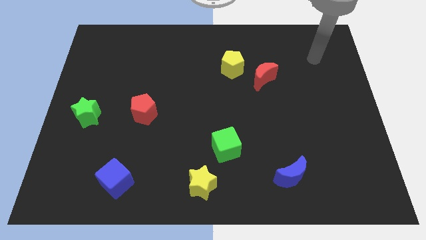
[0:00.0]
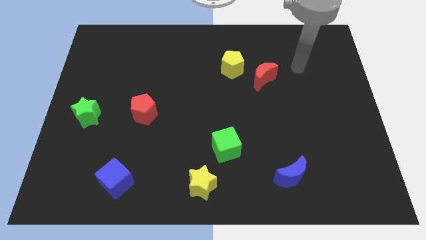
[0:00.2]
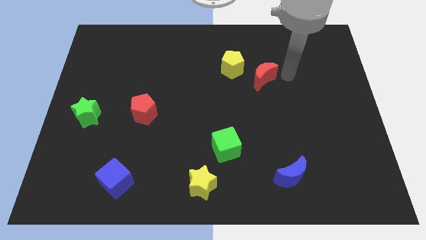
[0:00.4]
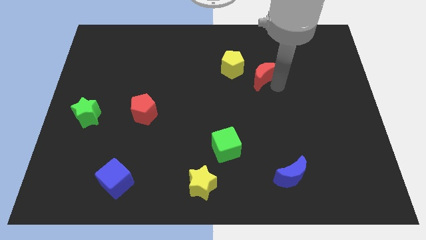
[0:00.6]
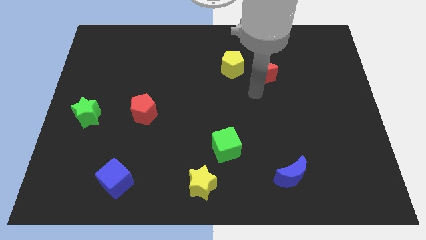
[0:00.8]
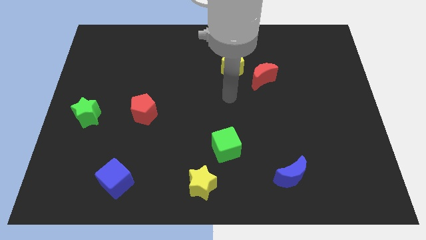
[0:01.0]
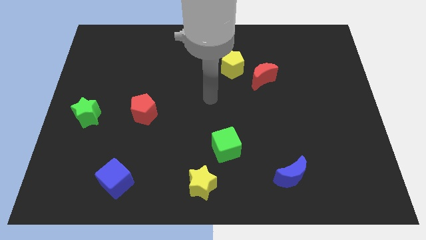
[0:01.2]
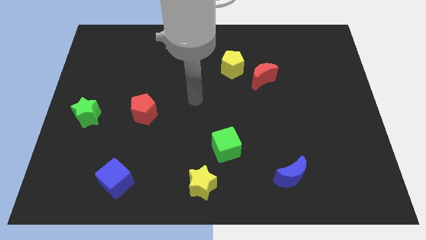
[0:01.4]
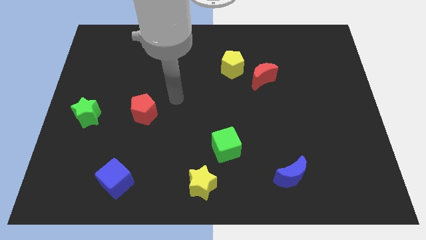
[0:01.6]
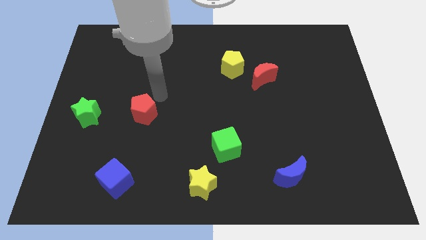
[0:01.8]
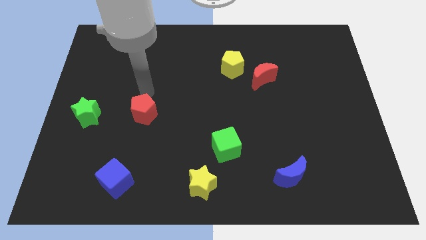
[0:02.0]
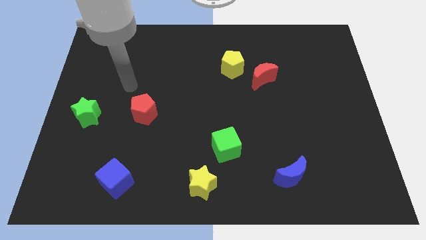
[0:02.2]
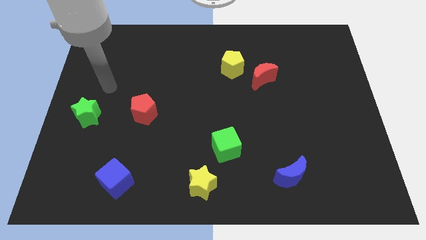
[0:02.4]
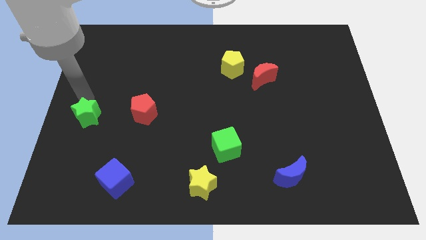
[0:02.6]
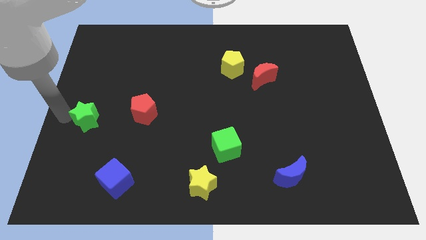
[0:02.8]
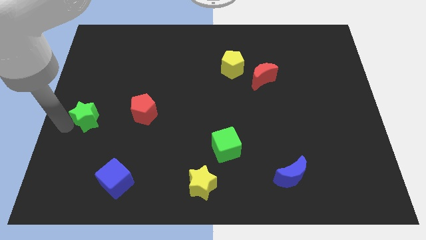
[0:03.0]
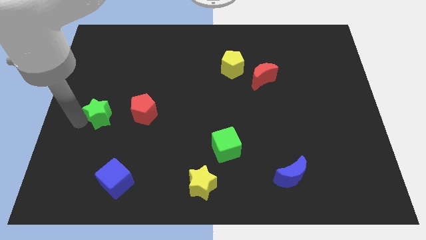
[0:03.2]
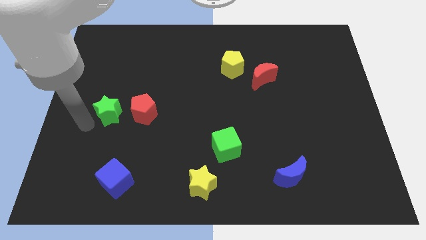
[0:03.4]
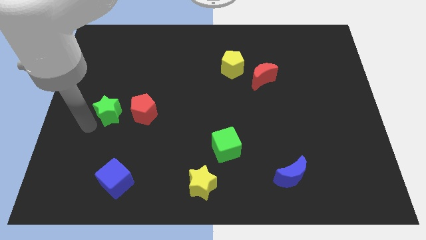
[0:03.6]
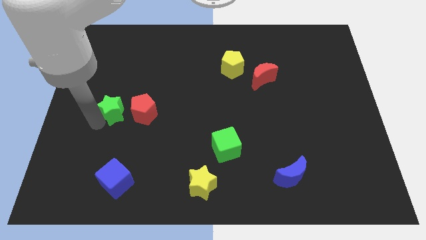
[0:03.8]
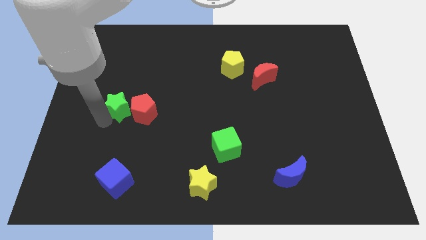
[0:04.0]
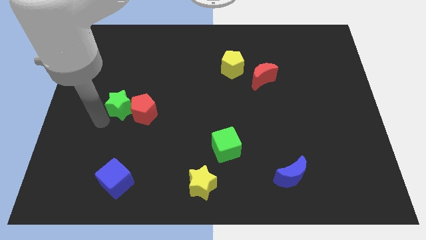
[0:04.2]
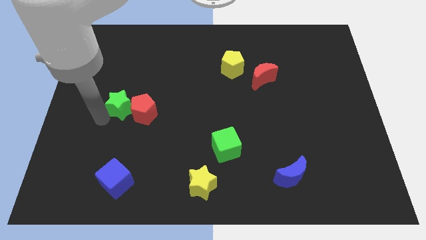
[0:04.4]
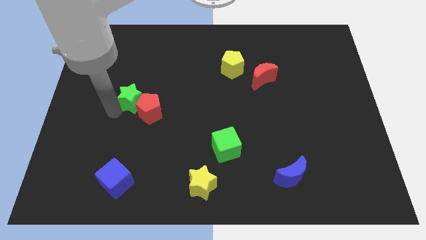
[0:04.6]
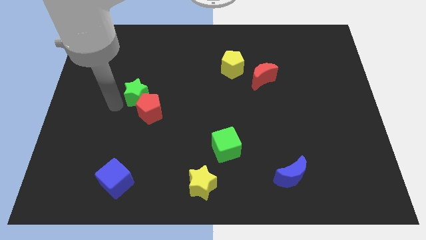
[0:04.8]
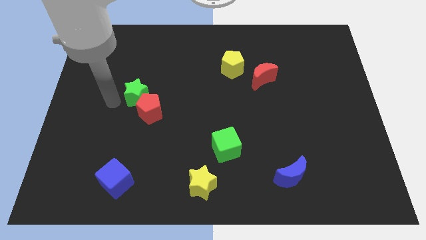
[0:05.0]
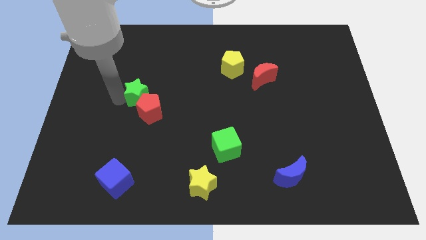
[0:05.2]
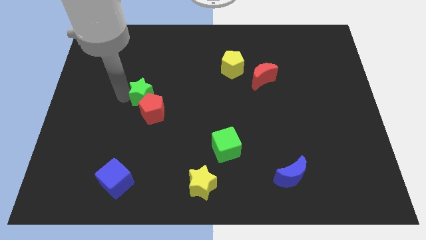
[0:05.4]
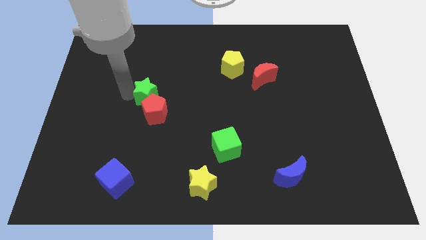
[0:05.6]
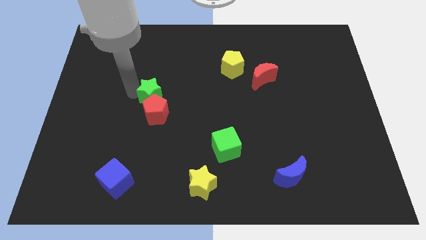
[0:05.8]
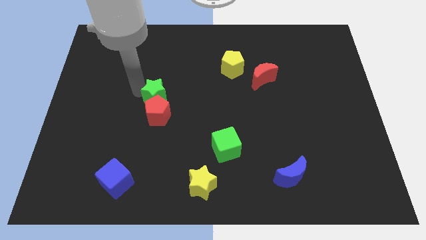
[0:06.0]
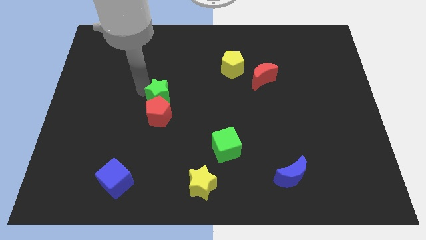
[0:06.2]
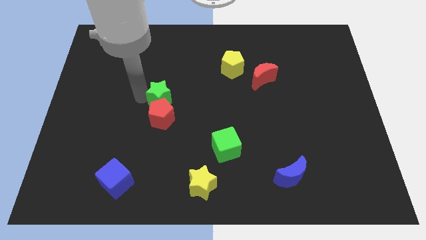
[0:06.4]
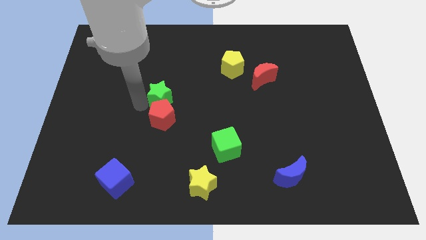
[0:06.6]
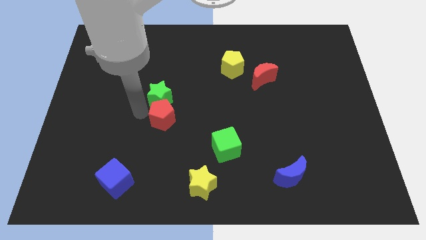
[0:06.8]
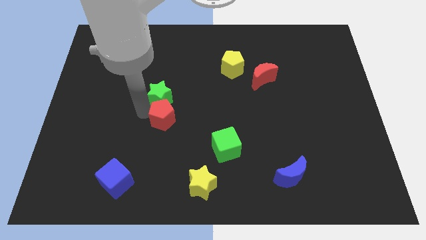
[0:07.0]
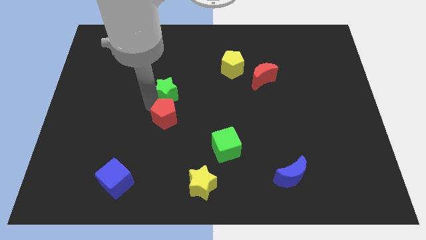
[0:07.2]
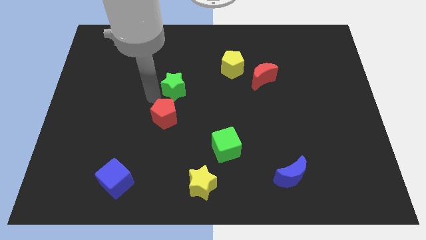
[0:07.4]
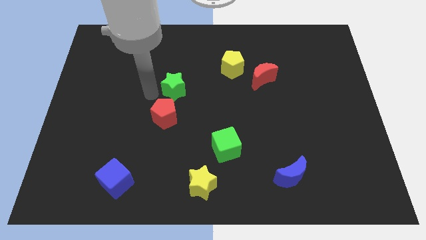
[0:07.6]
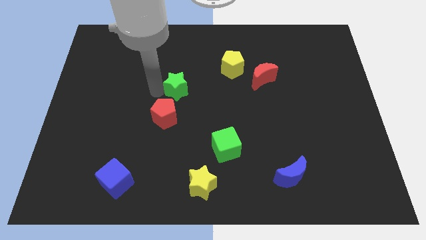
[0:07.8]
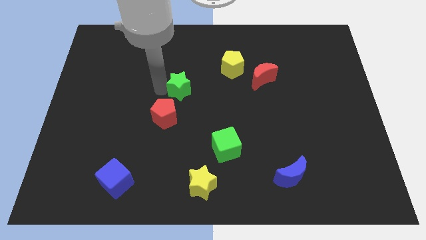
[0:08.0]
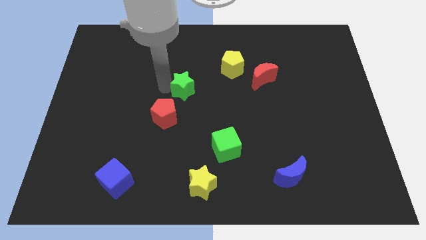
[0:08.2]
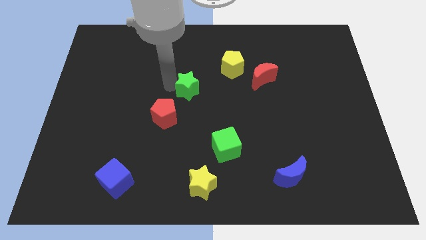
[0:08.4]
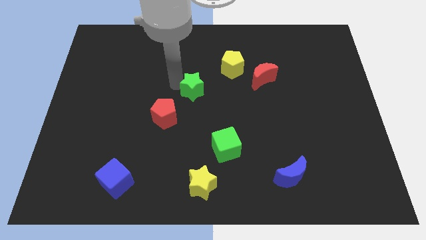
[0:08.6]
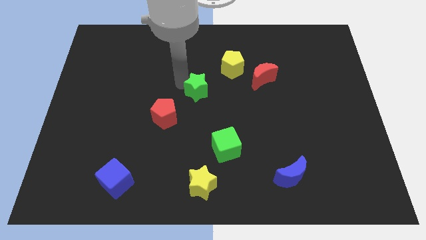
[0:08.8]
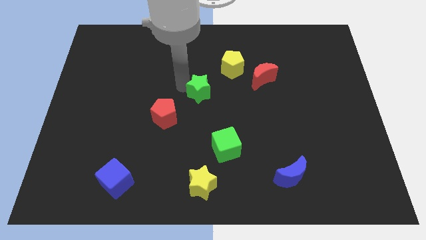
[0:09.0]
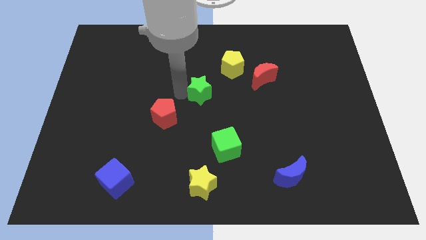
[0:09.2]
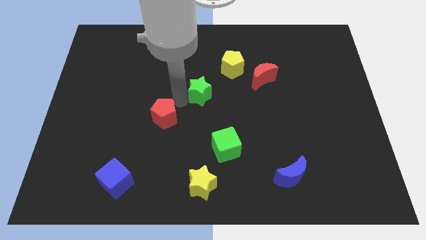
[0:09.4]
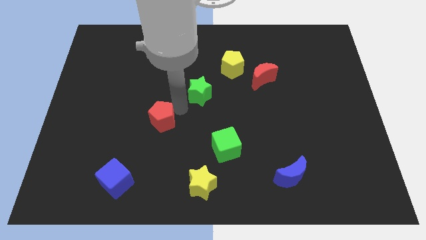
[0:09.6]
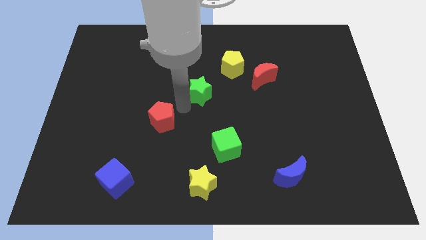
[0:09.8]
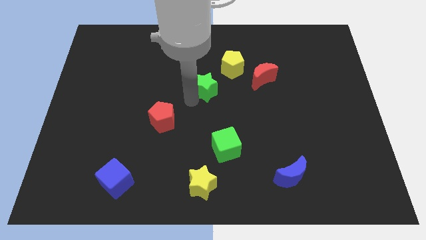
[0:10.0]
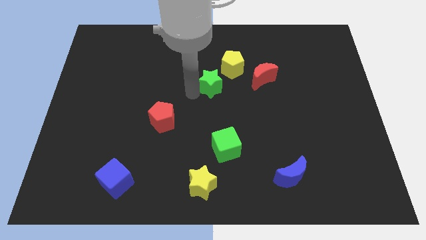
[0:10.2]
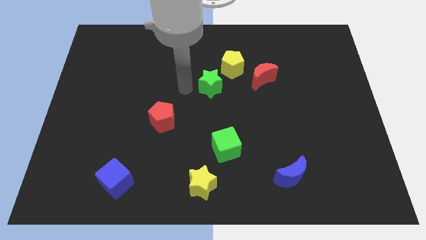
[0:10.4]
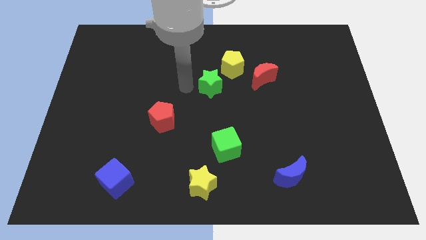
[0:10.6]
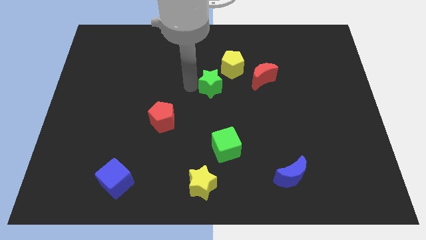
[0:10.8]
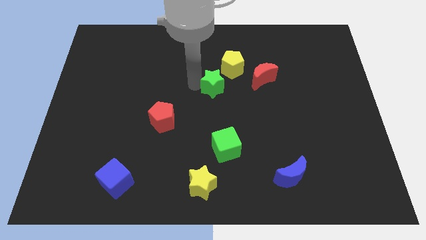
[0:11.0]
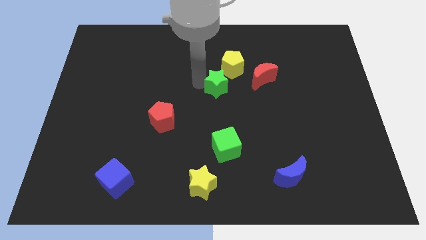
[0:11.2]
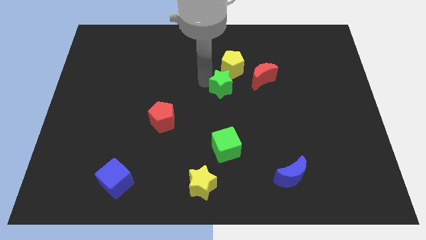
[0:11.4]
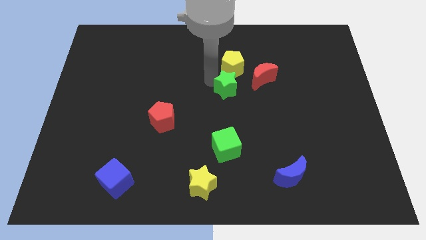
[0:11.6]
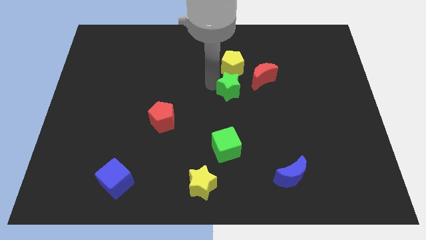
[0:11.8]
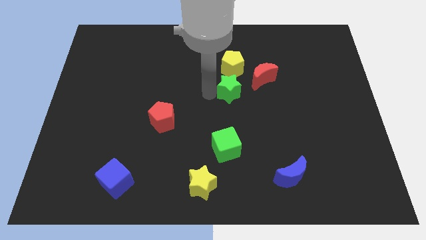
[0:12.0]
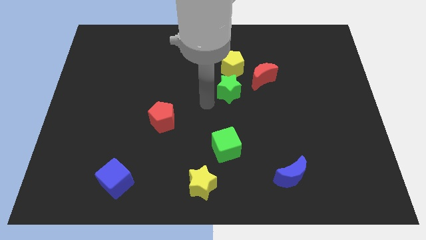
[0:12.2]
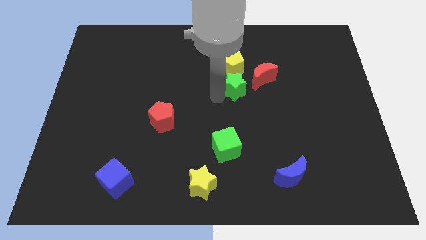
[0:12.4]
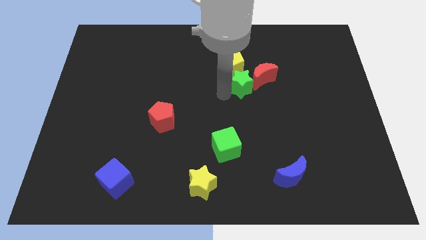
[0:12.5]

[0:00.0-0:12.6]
move the green star to the red moon

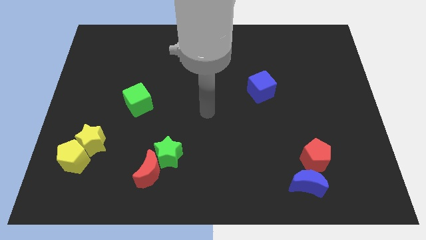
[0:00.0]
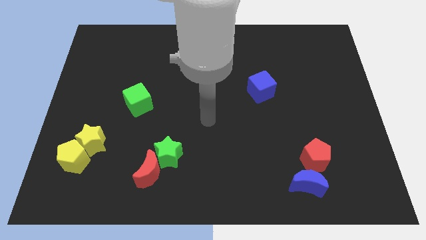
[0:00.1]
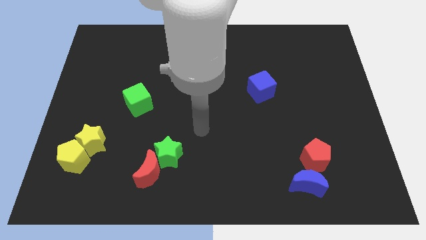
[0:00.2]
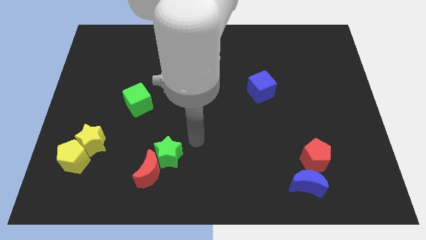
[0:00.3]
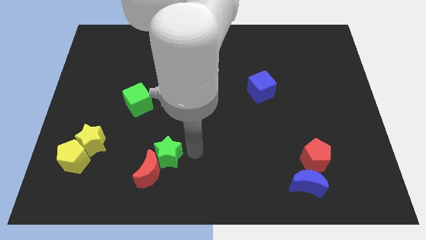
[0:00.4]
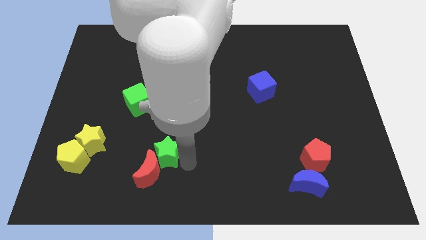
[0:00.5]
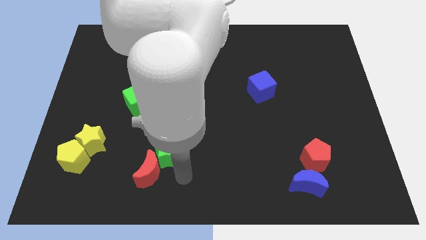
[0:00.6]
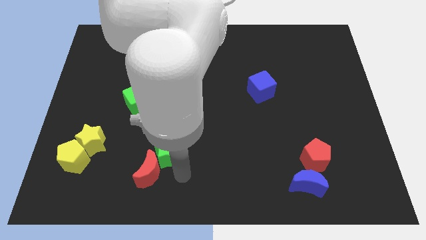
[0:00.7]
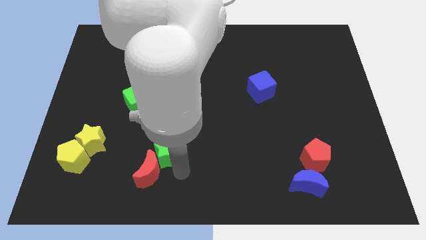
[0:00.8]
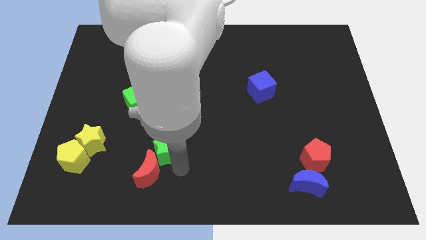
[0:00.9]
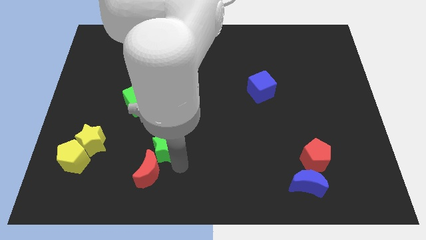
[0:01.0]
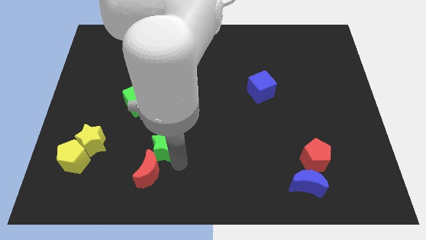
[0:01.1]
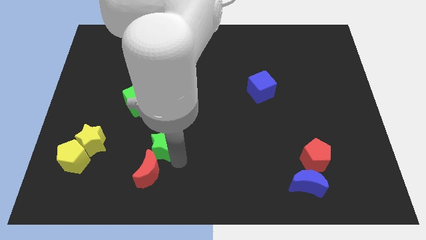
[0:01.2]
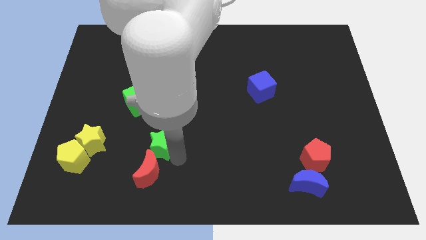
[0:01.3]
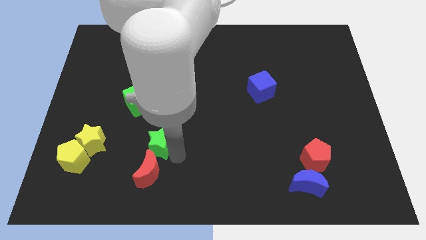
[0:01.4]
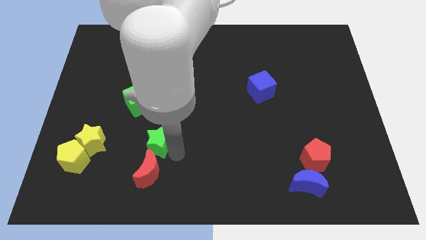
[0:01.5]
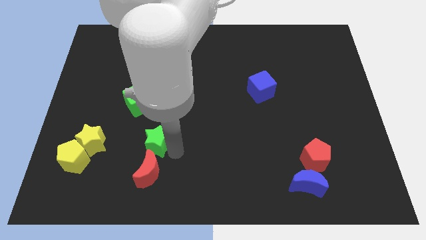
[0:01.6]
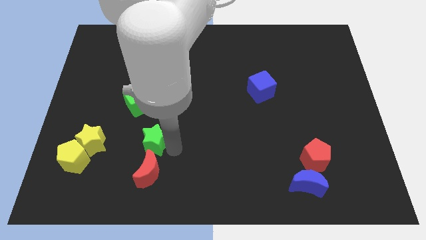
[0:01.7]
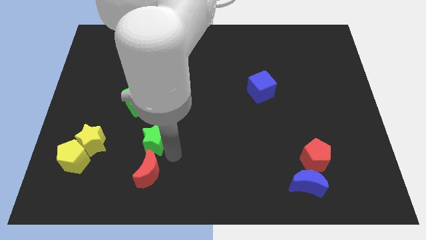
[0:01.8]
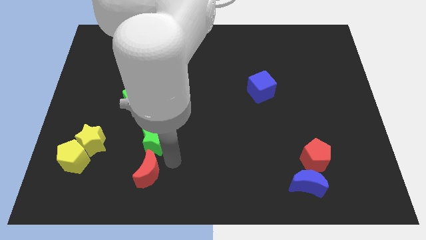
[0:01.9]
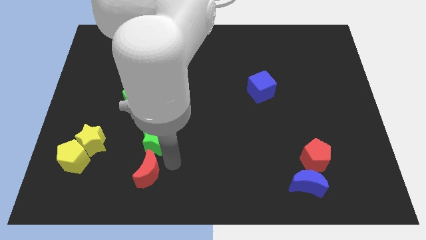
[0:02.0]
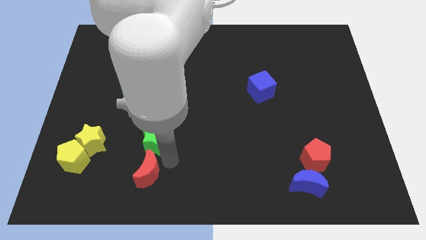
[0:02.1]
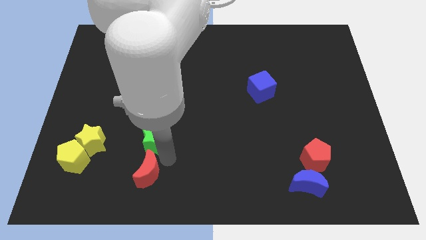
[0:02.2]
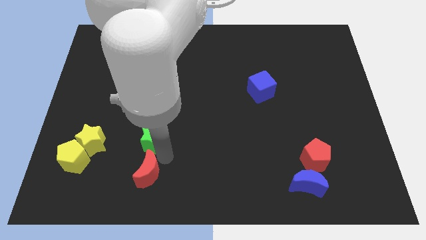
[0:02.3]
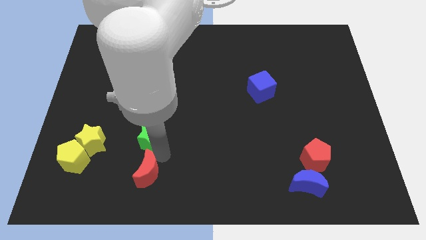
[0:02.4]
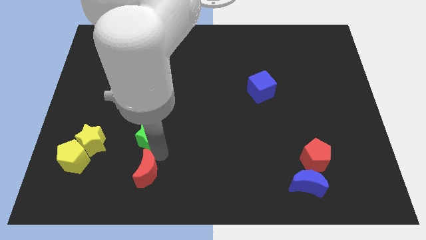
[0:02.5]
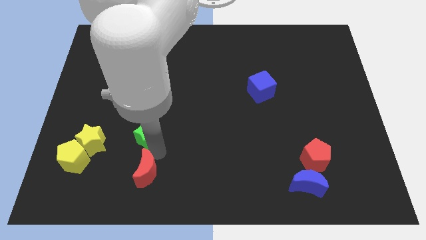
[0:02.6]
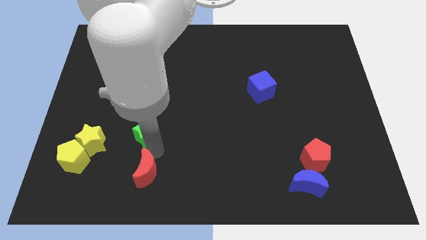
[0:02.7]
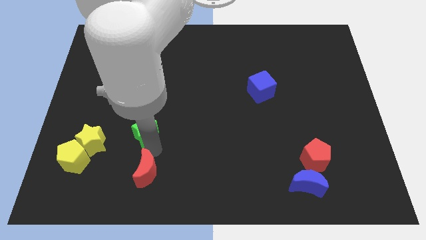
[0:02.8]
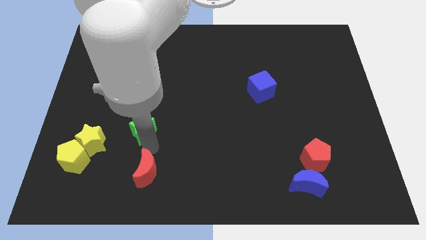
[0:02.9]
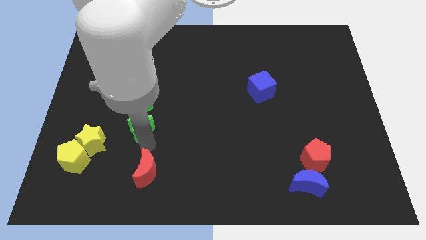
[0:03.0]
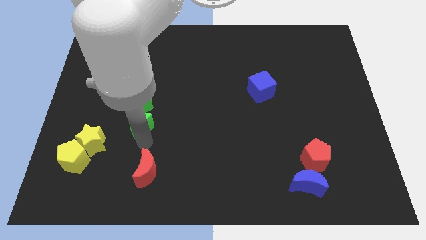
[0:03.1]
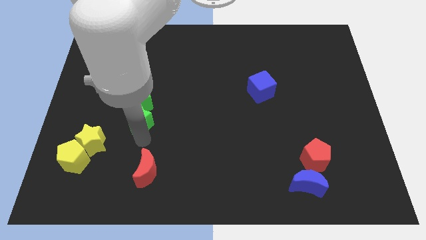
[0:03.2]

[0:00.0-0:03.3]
put the green star towards the green cube
